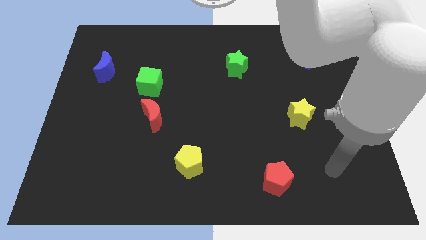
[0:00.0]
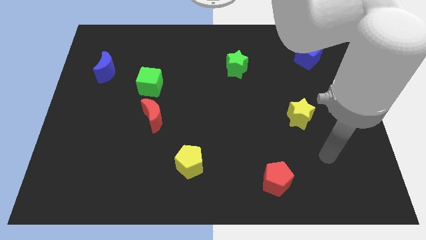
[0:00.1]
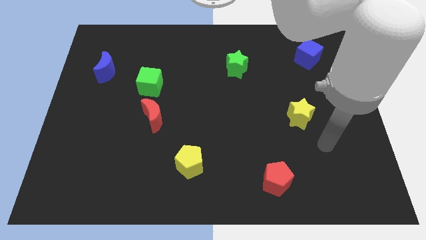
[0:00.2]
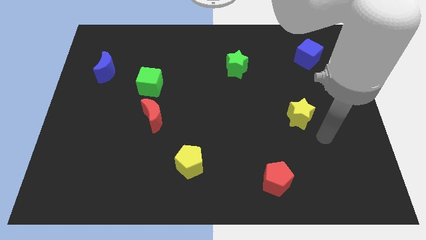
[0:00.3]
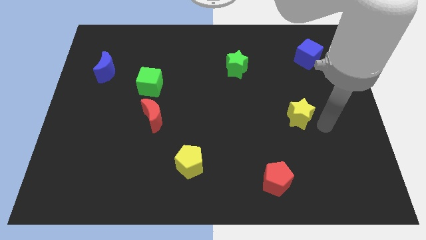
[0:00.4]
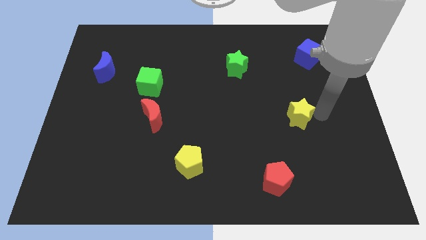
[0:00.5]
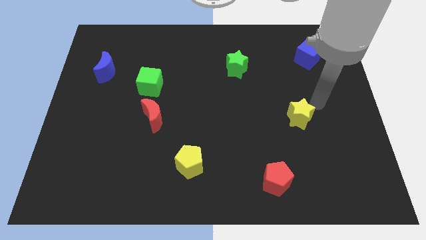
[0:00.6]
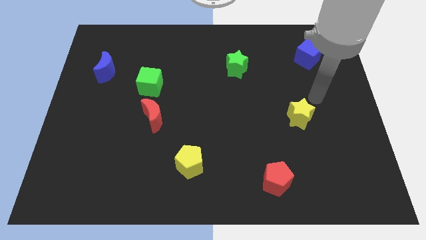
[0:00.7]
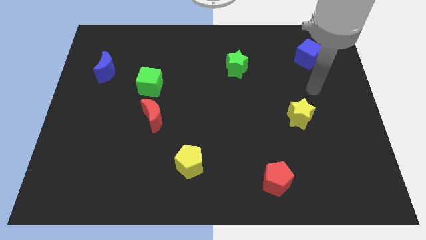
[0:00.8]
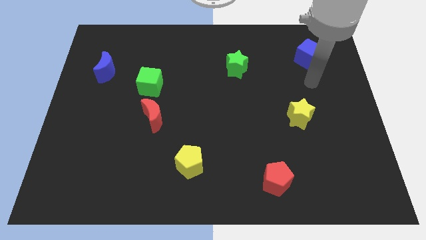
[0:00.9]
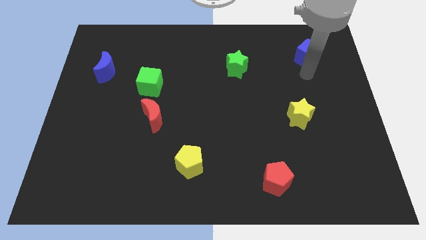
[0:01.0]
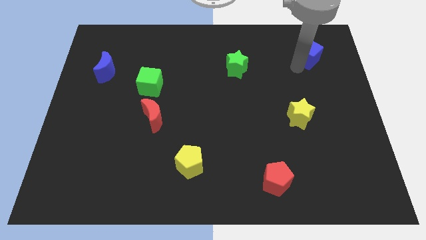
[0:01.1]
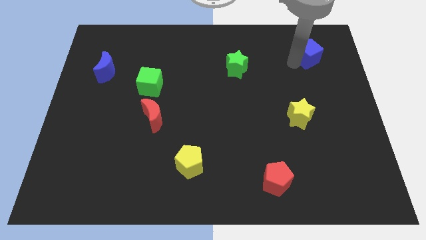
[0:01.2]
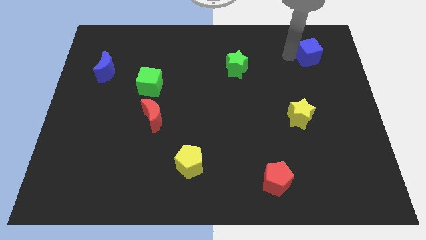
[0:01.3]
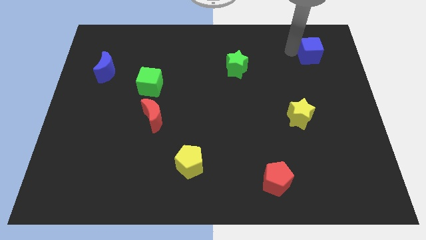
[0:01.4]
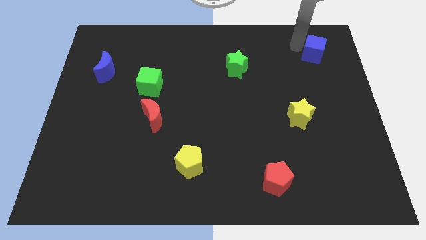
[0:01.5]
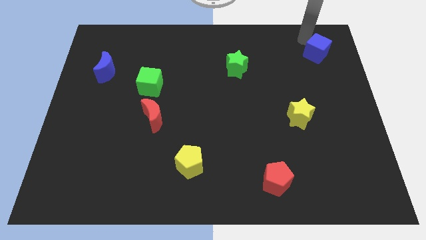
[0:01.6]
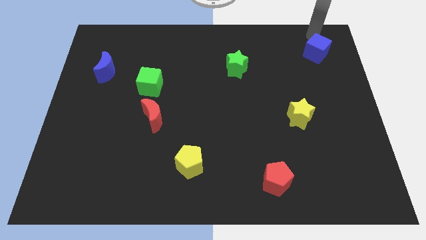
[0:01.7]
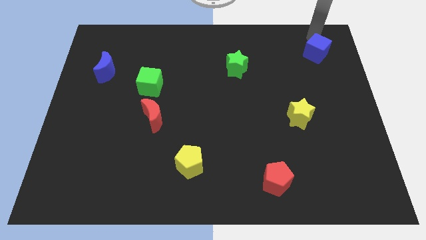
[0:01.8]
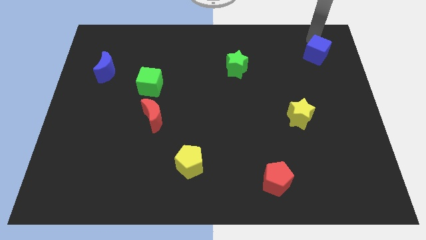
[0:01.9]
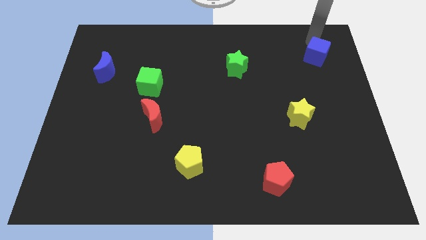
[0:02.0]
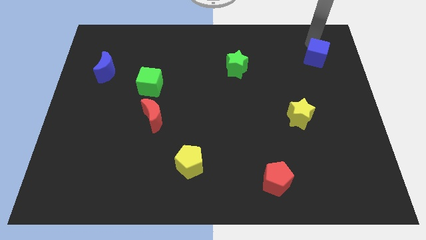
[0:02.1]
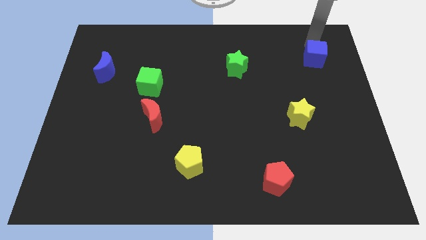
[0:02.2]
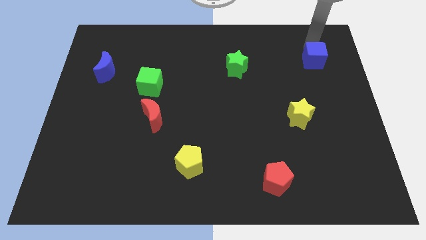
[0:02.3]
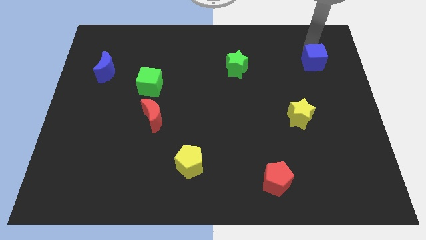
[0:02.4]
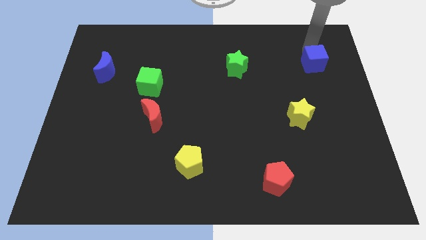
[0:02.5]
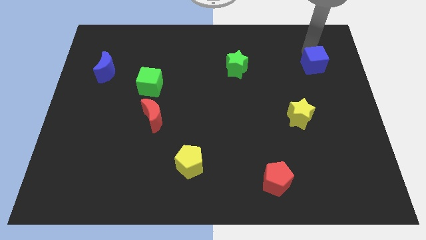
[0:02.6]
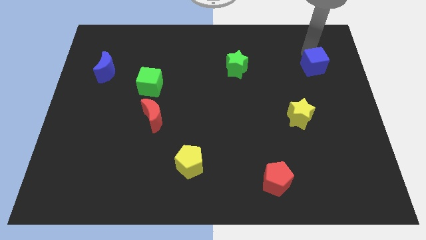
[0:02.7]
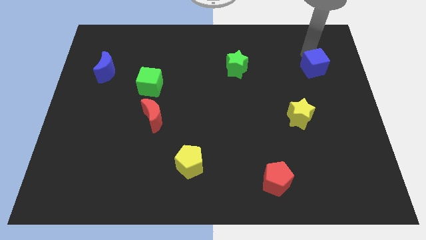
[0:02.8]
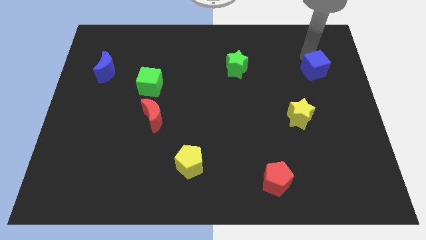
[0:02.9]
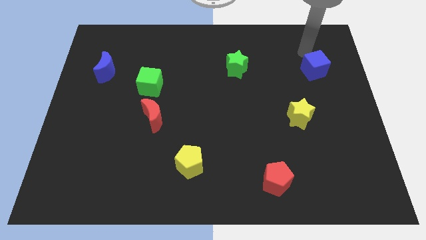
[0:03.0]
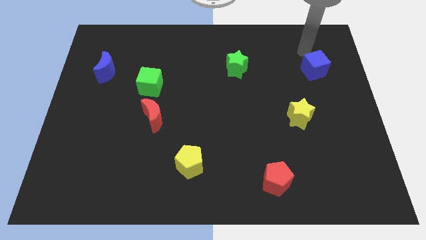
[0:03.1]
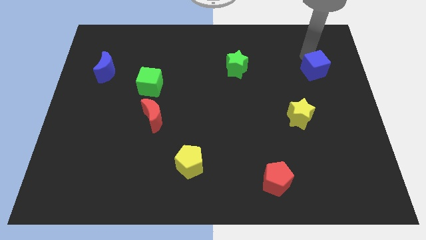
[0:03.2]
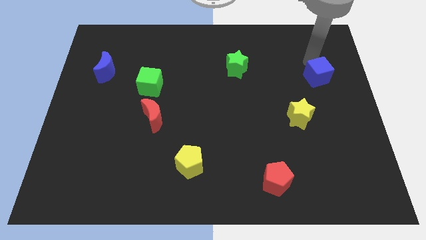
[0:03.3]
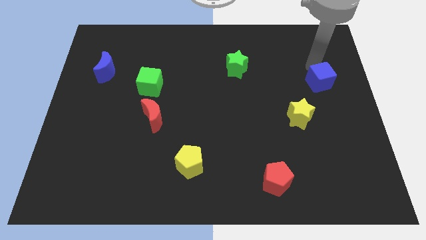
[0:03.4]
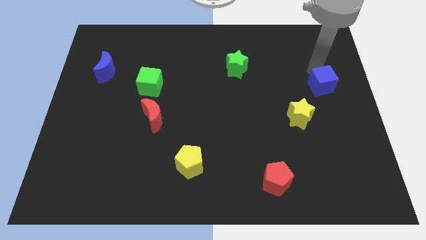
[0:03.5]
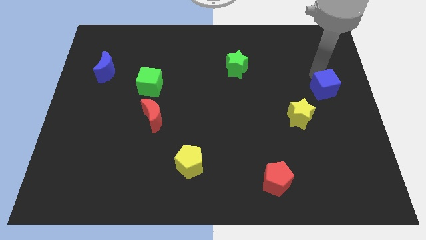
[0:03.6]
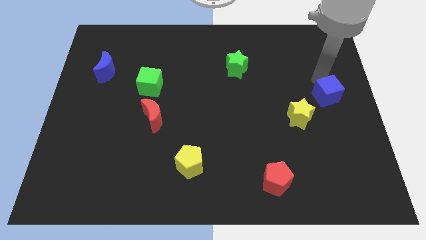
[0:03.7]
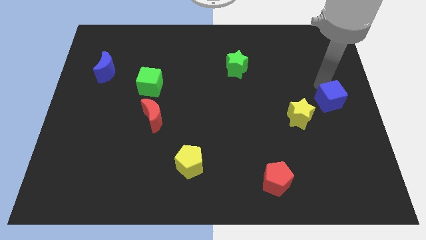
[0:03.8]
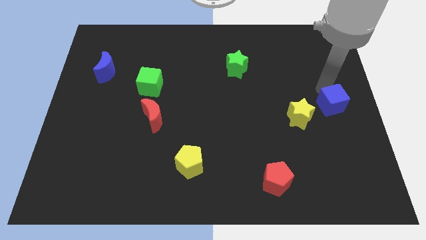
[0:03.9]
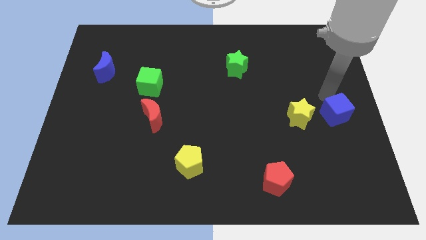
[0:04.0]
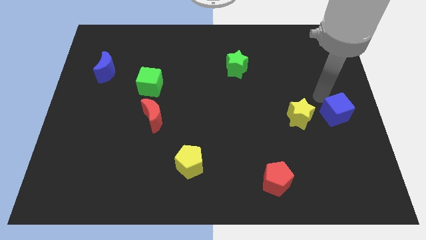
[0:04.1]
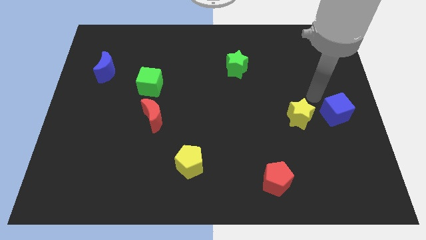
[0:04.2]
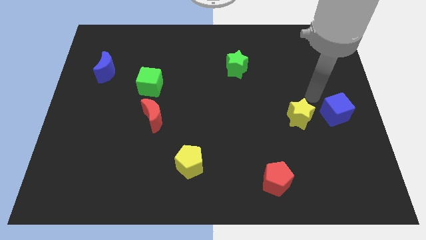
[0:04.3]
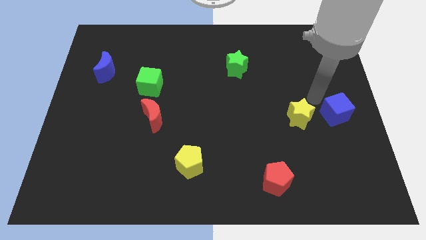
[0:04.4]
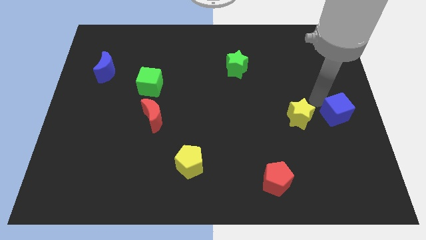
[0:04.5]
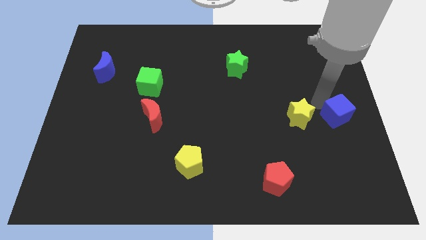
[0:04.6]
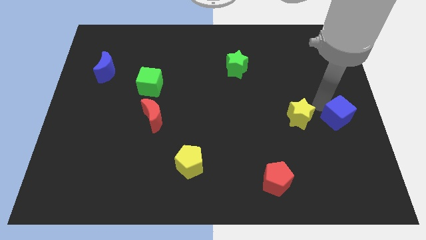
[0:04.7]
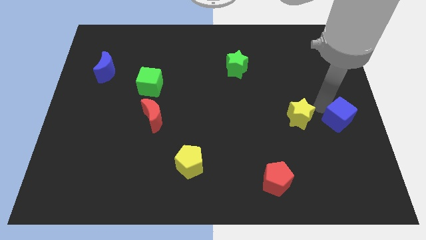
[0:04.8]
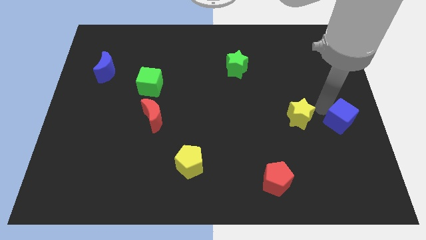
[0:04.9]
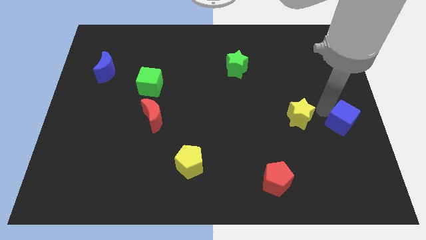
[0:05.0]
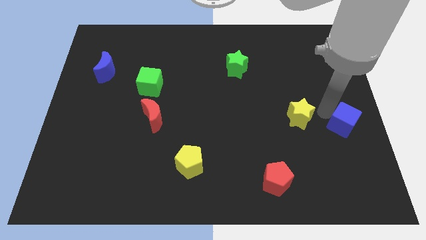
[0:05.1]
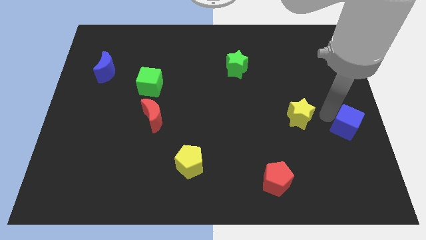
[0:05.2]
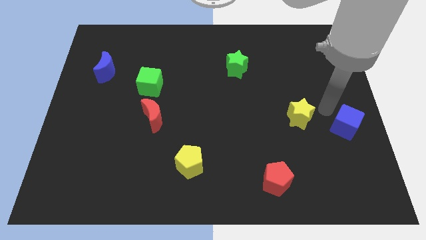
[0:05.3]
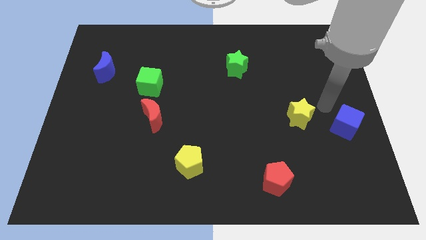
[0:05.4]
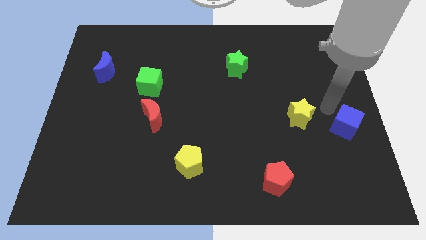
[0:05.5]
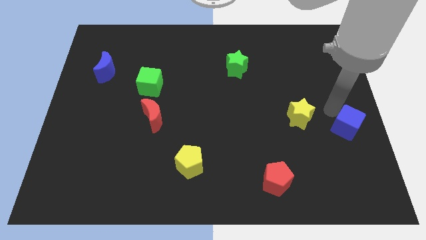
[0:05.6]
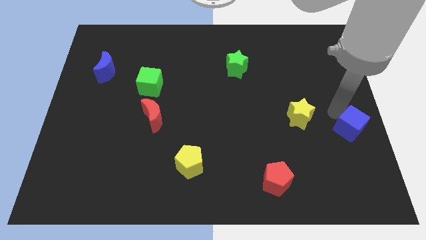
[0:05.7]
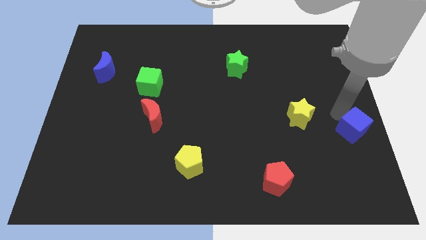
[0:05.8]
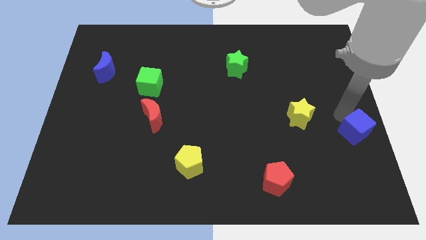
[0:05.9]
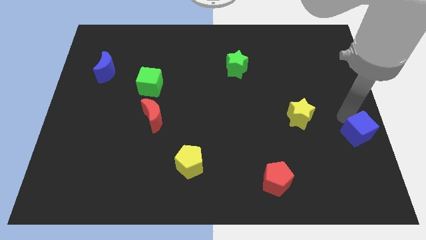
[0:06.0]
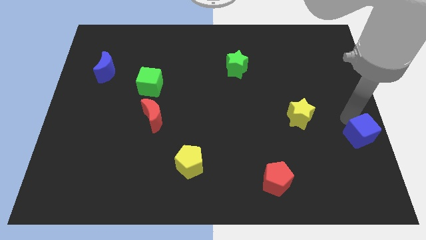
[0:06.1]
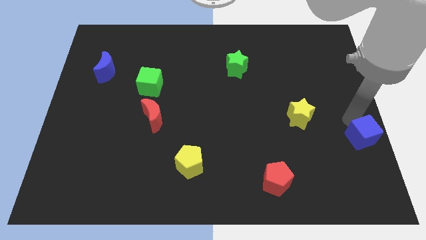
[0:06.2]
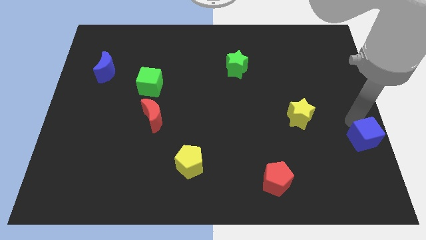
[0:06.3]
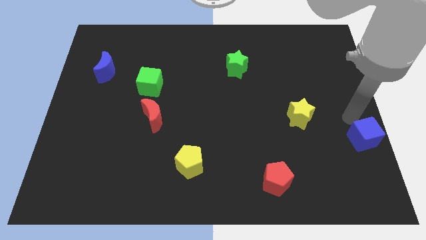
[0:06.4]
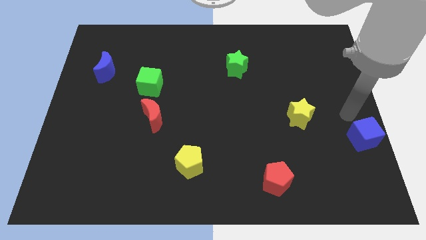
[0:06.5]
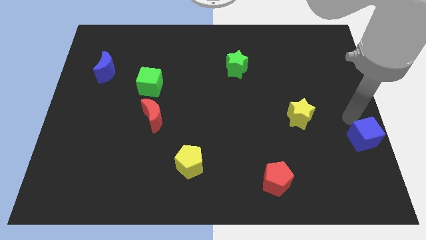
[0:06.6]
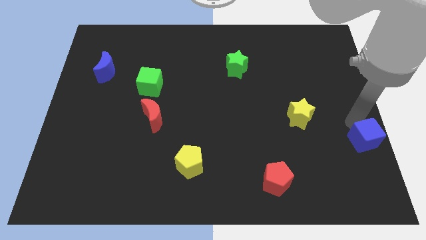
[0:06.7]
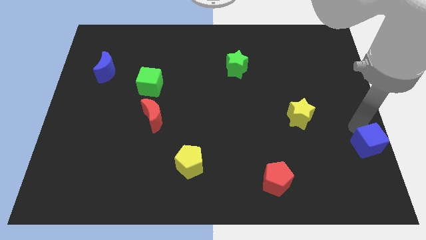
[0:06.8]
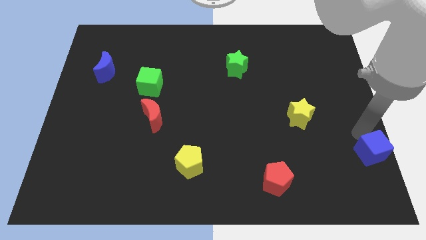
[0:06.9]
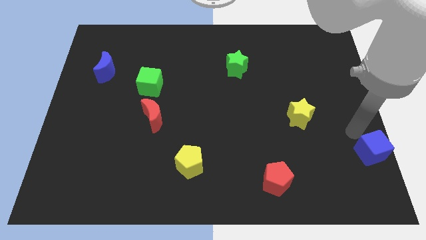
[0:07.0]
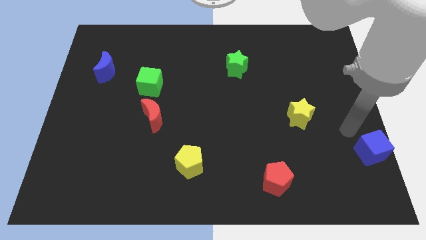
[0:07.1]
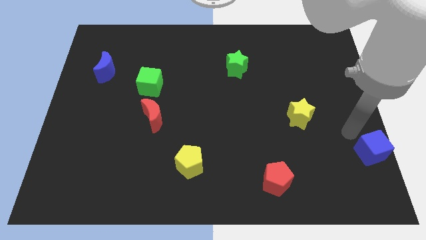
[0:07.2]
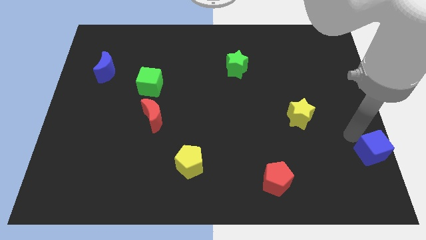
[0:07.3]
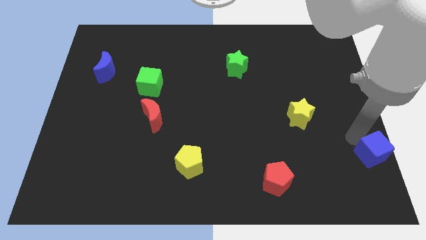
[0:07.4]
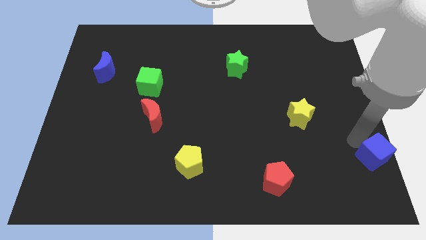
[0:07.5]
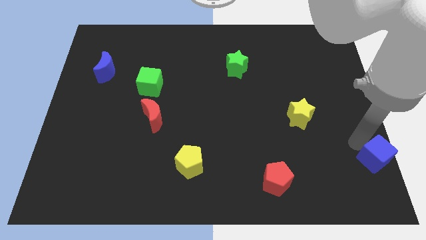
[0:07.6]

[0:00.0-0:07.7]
put the blue cube to the bottom right
